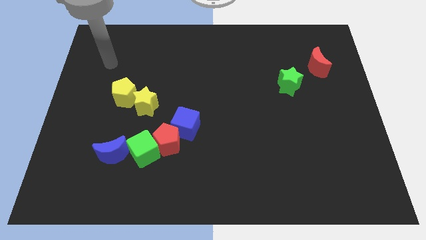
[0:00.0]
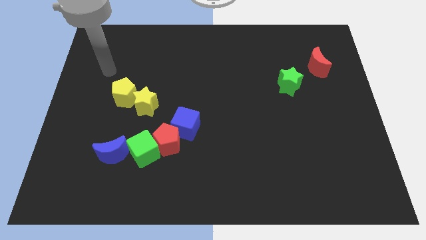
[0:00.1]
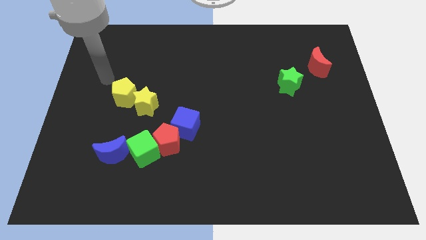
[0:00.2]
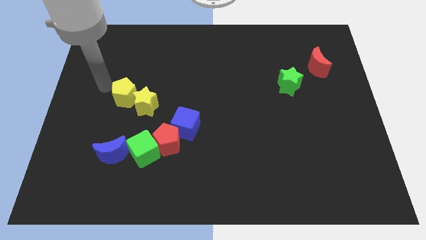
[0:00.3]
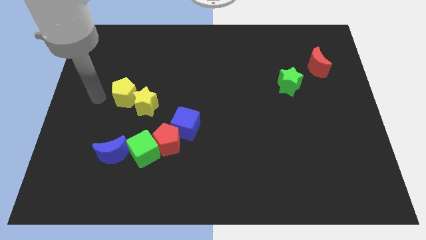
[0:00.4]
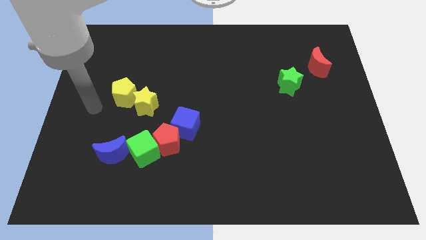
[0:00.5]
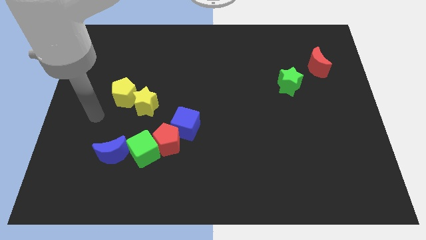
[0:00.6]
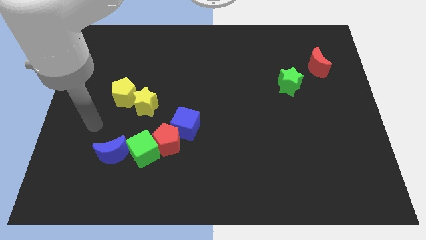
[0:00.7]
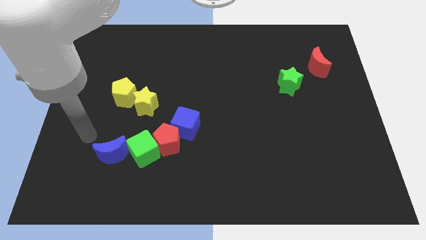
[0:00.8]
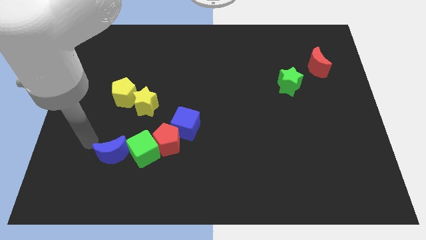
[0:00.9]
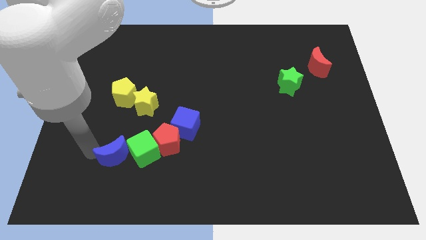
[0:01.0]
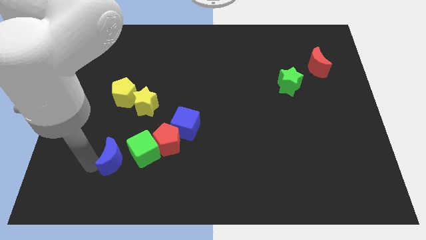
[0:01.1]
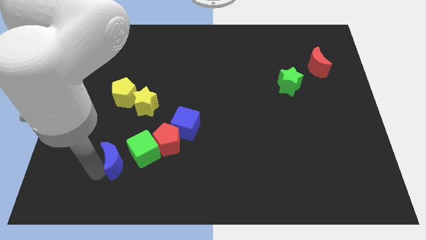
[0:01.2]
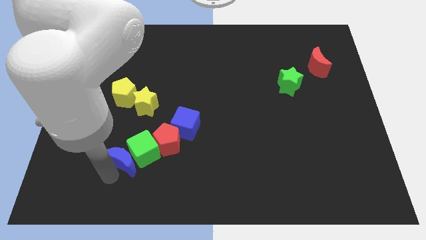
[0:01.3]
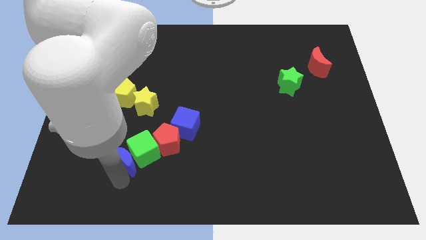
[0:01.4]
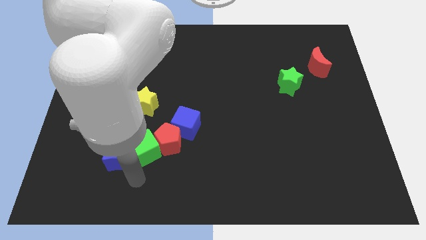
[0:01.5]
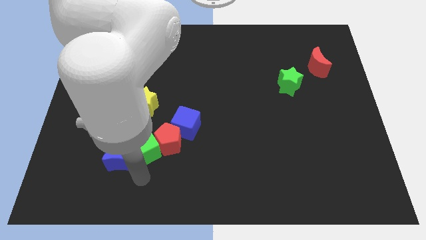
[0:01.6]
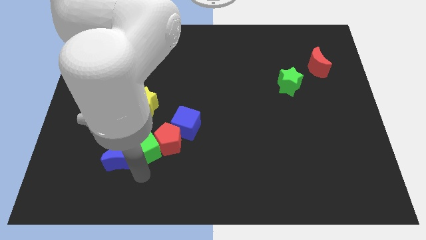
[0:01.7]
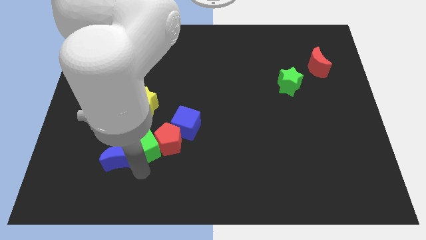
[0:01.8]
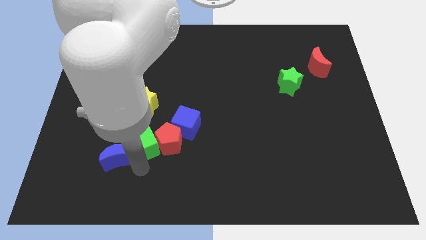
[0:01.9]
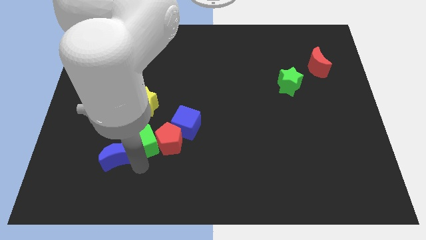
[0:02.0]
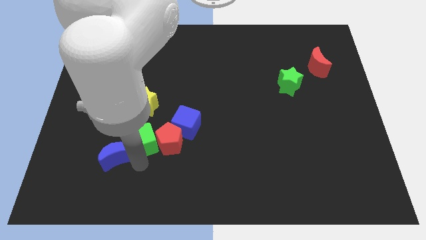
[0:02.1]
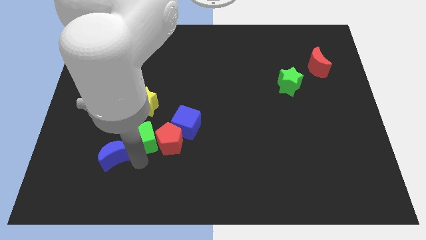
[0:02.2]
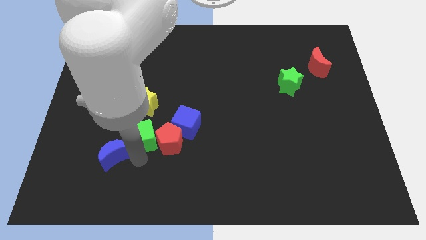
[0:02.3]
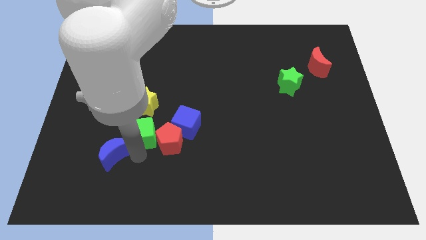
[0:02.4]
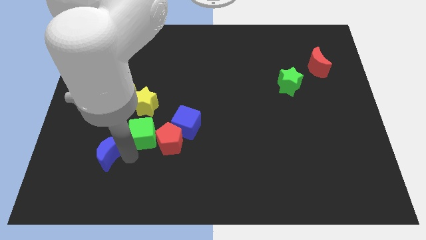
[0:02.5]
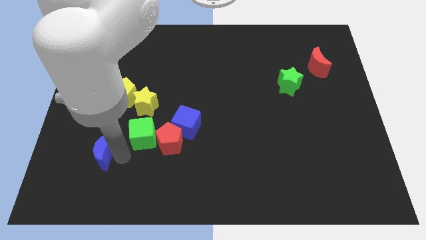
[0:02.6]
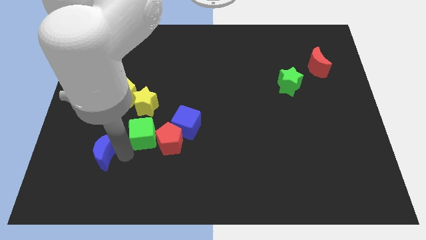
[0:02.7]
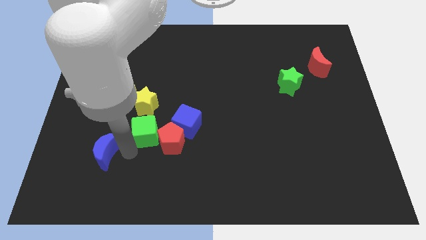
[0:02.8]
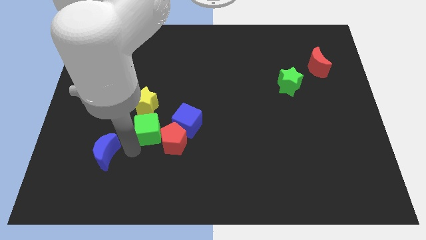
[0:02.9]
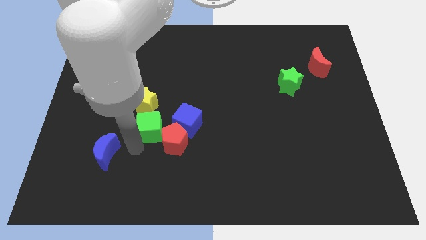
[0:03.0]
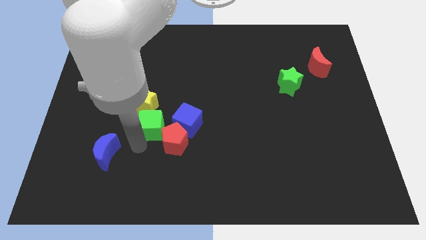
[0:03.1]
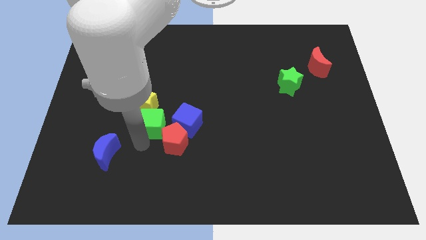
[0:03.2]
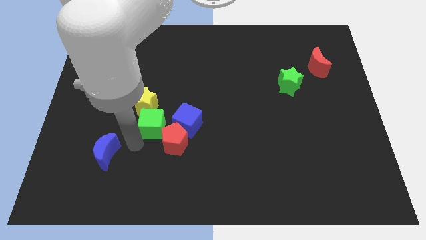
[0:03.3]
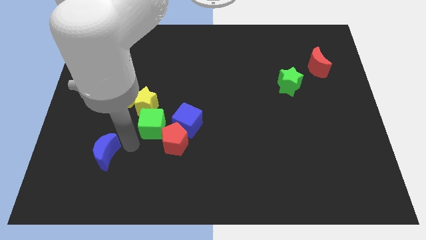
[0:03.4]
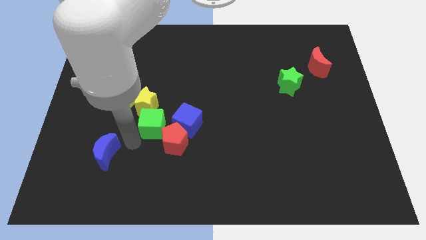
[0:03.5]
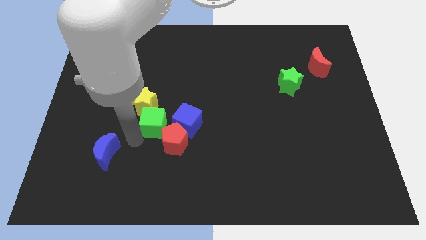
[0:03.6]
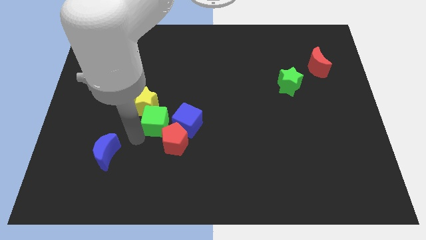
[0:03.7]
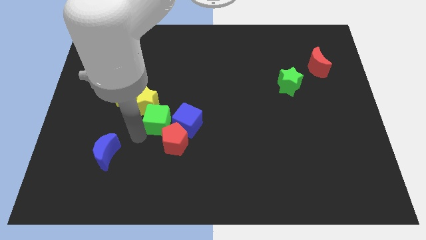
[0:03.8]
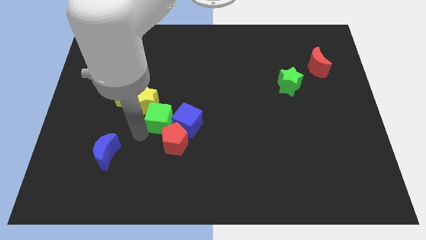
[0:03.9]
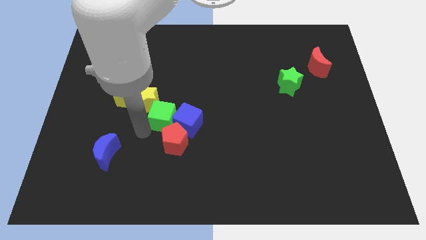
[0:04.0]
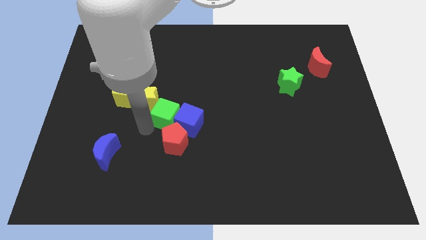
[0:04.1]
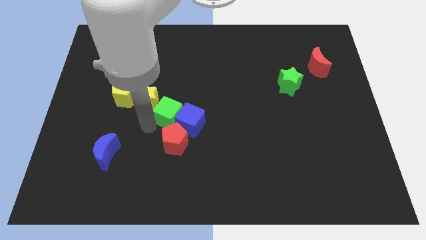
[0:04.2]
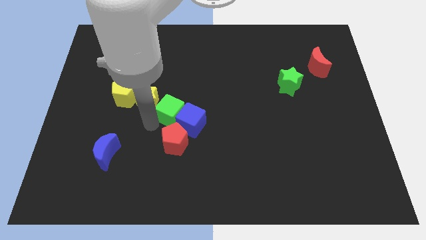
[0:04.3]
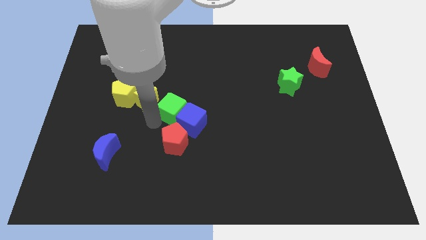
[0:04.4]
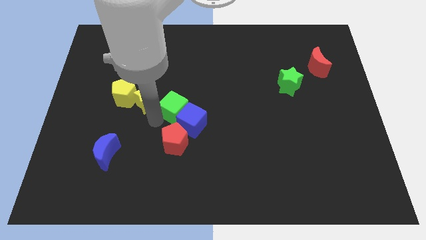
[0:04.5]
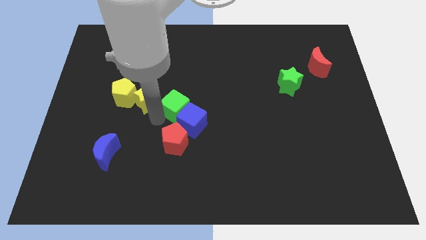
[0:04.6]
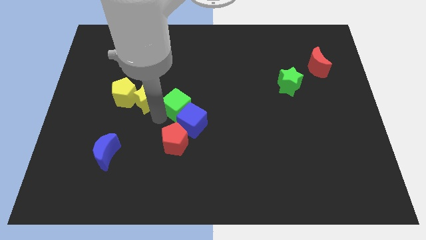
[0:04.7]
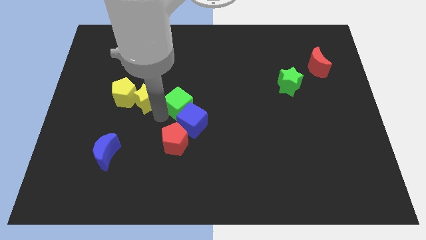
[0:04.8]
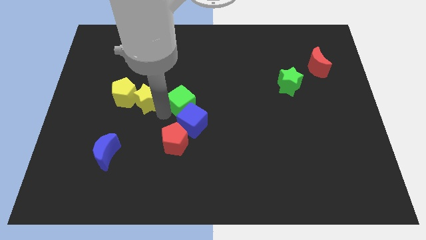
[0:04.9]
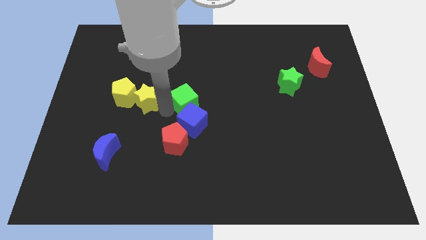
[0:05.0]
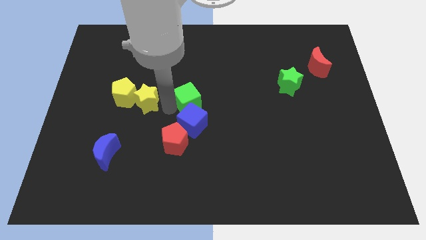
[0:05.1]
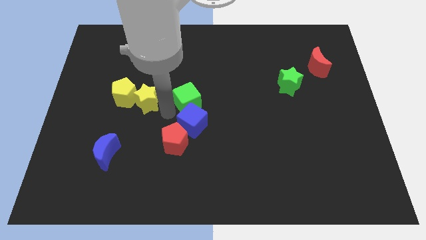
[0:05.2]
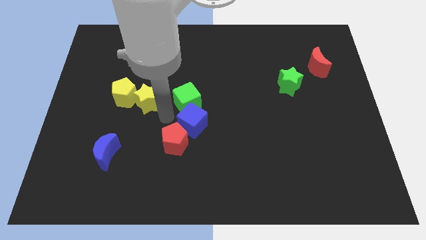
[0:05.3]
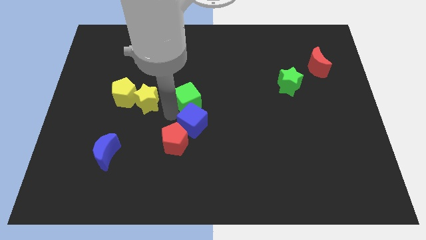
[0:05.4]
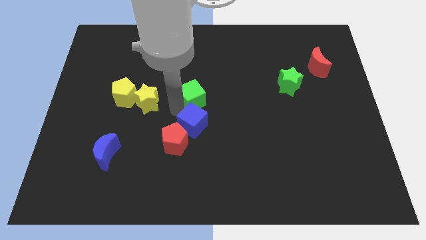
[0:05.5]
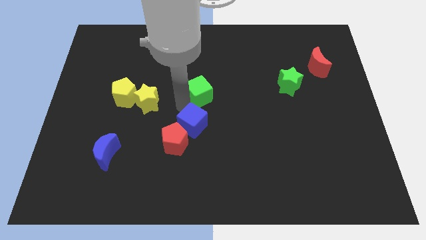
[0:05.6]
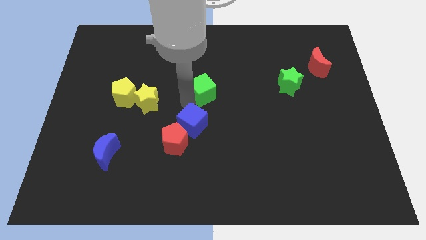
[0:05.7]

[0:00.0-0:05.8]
move the green cube upwards and then right

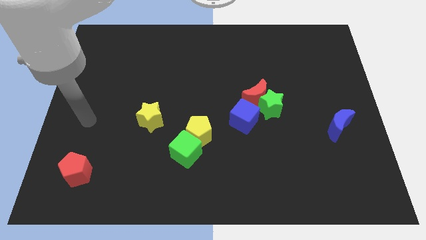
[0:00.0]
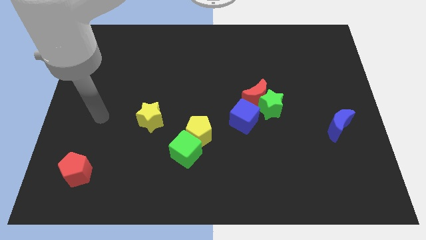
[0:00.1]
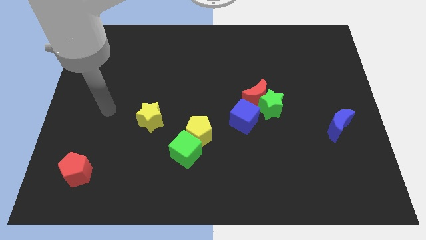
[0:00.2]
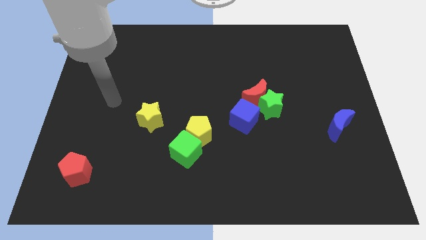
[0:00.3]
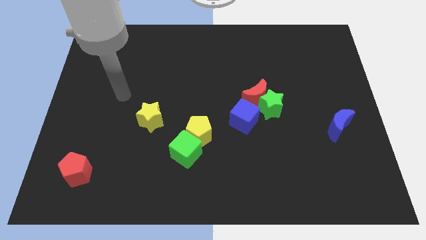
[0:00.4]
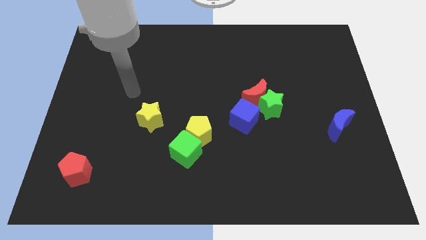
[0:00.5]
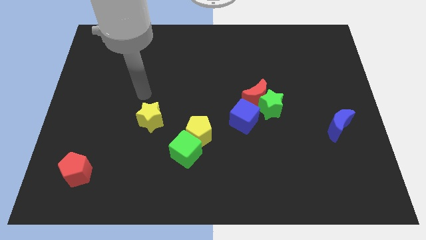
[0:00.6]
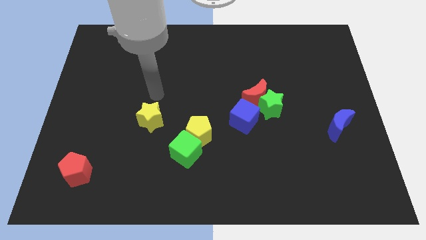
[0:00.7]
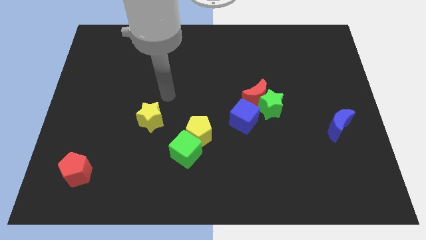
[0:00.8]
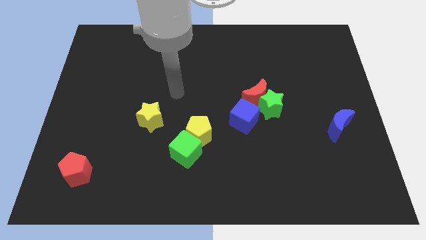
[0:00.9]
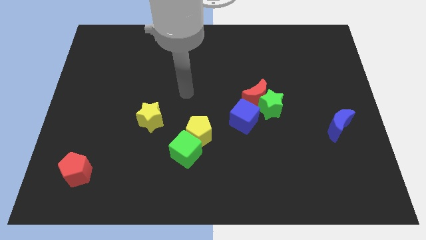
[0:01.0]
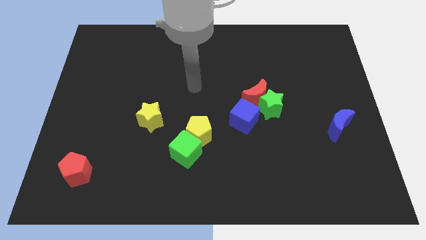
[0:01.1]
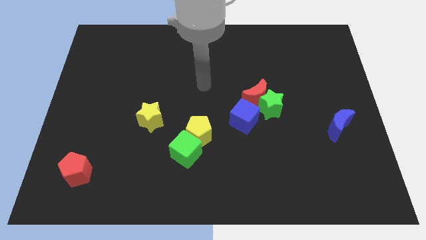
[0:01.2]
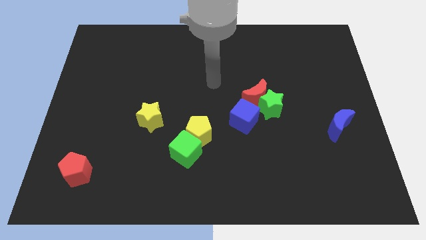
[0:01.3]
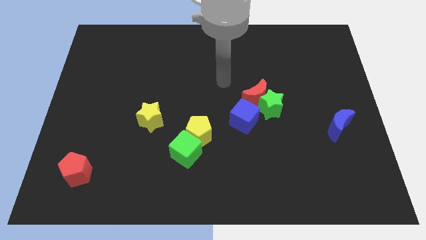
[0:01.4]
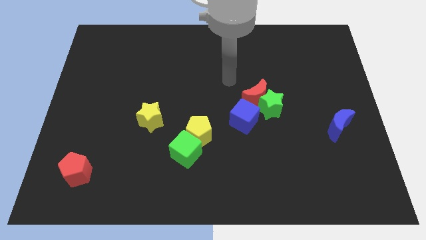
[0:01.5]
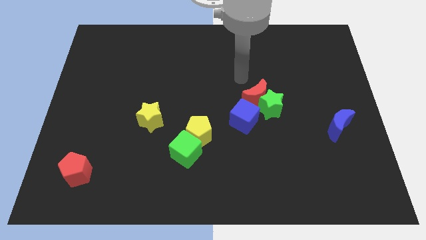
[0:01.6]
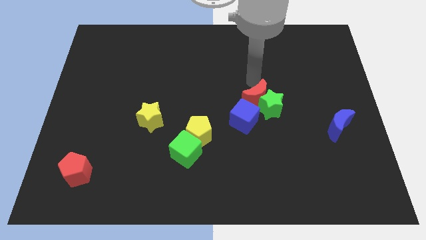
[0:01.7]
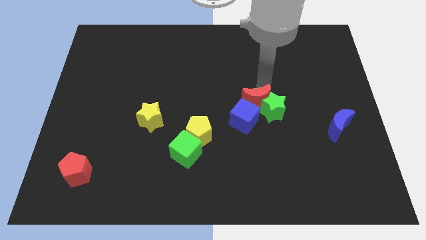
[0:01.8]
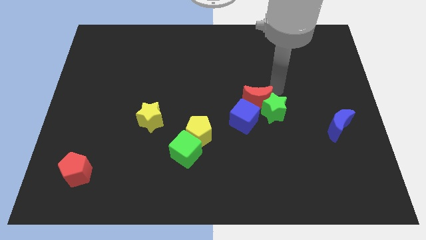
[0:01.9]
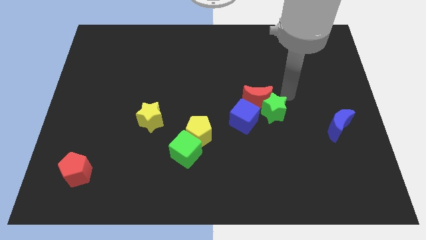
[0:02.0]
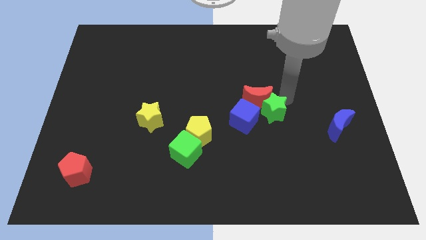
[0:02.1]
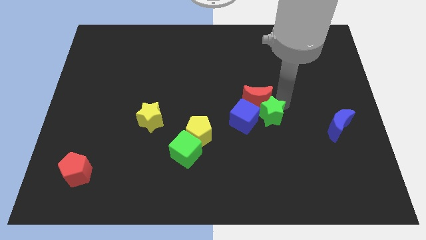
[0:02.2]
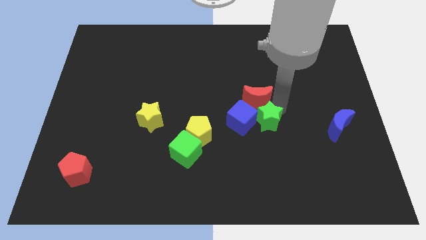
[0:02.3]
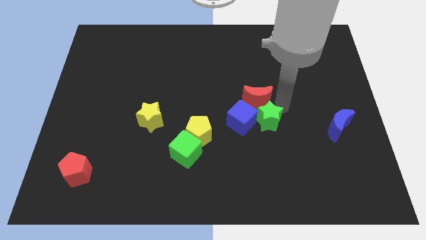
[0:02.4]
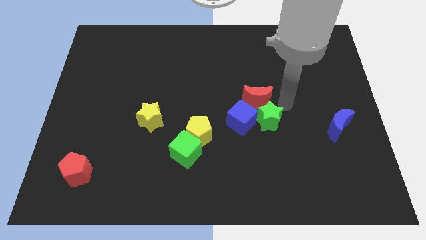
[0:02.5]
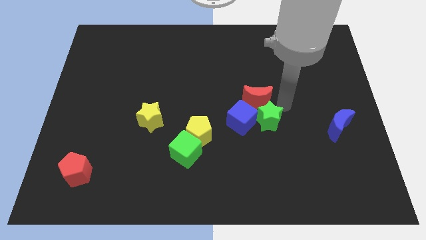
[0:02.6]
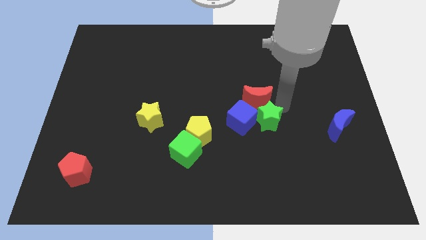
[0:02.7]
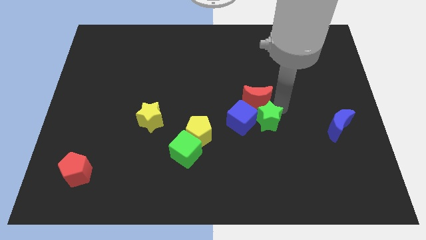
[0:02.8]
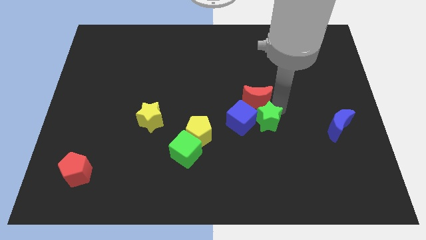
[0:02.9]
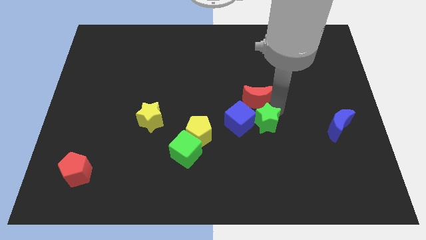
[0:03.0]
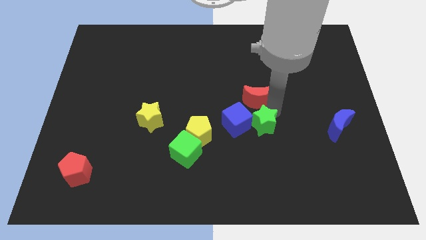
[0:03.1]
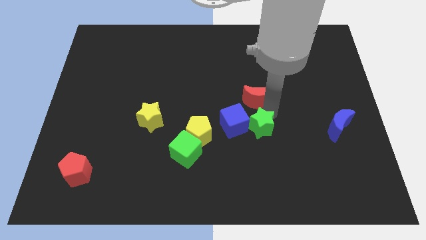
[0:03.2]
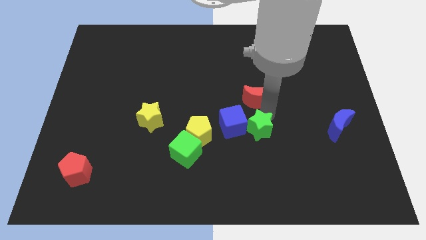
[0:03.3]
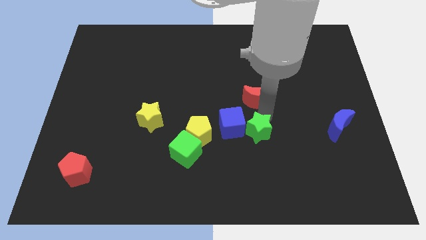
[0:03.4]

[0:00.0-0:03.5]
slightly push the green star downwards and left diagonally
